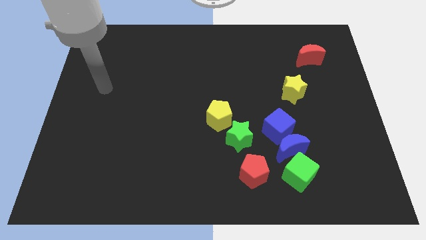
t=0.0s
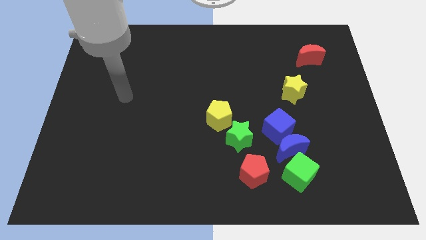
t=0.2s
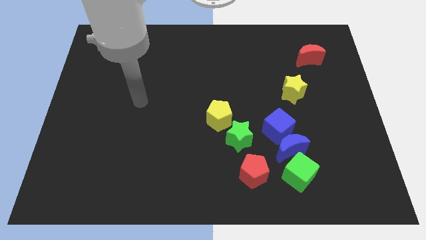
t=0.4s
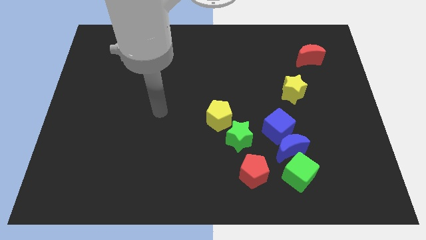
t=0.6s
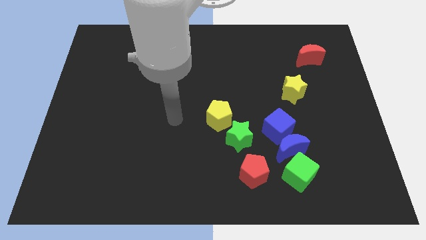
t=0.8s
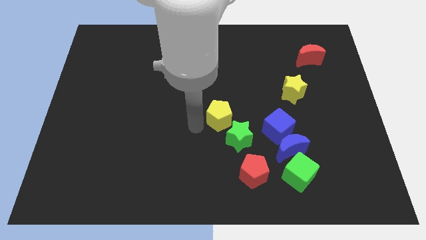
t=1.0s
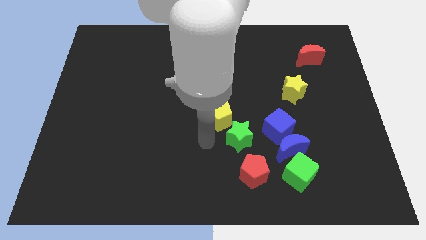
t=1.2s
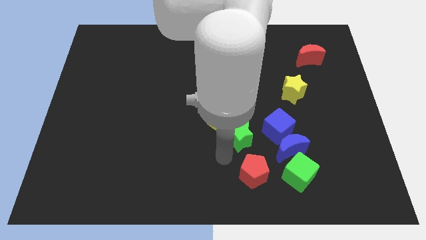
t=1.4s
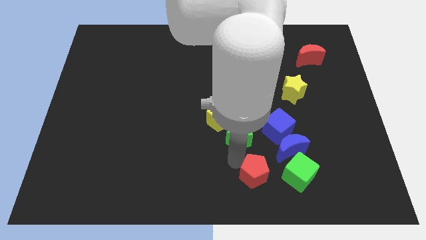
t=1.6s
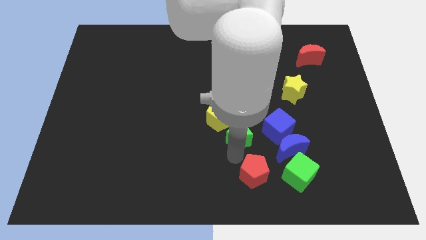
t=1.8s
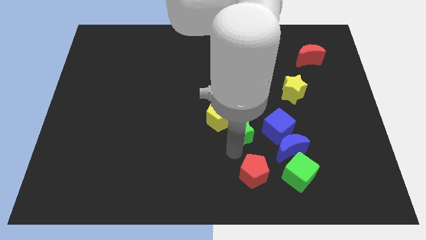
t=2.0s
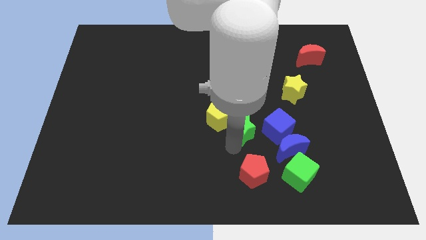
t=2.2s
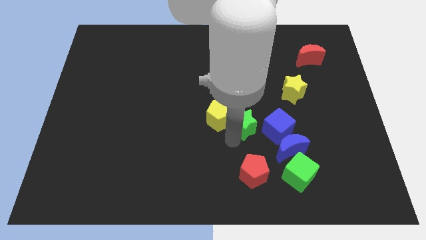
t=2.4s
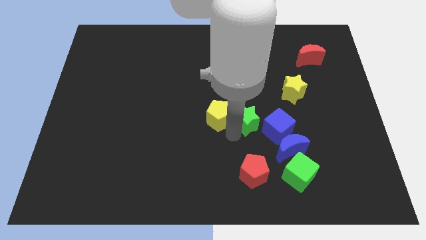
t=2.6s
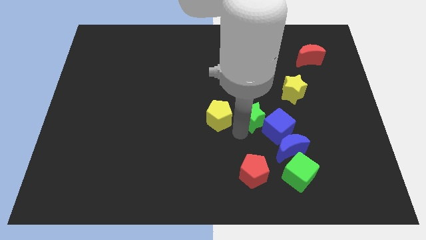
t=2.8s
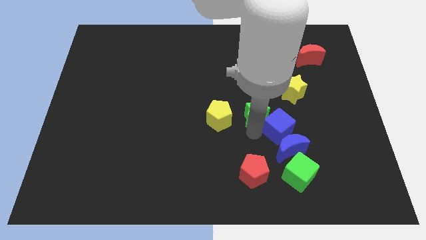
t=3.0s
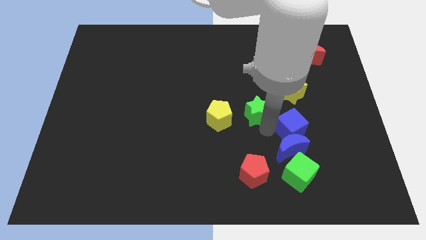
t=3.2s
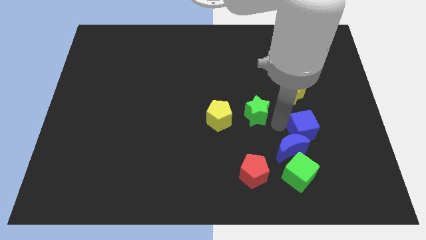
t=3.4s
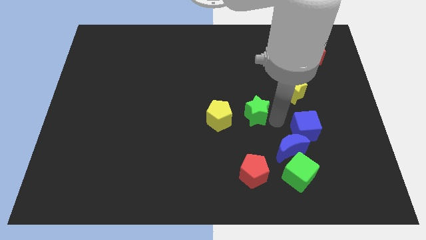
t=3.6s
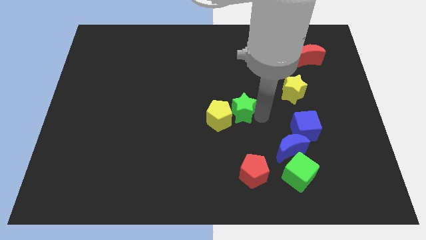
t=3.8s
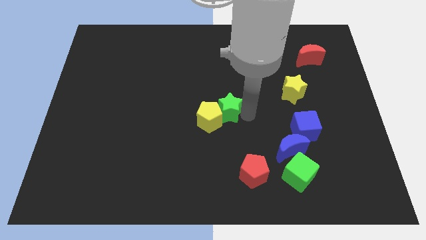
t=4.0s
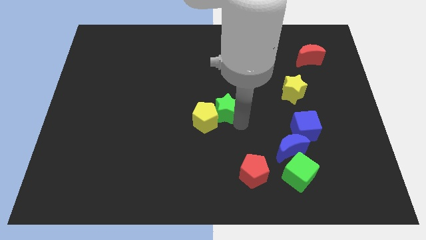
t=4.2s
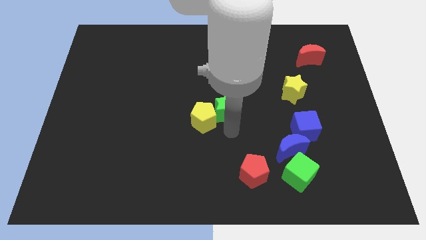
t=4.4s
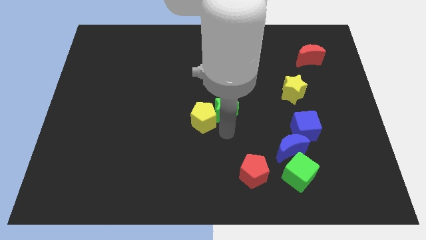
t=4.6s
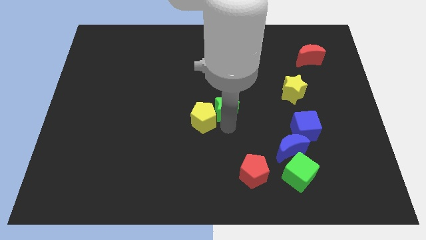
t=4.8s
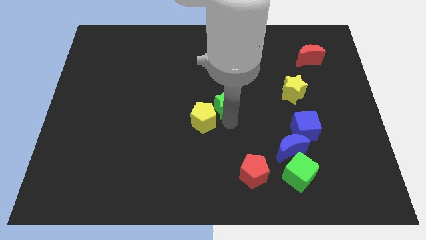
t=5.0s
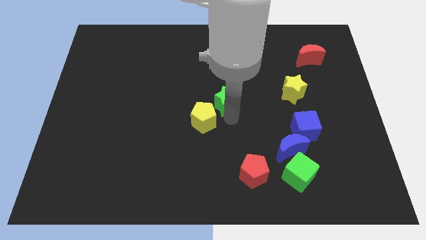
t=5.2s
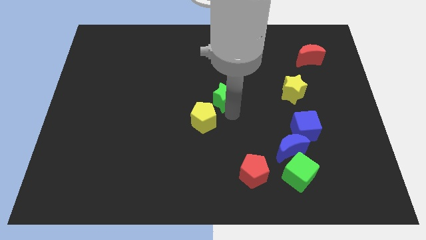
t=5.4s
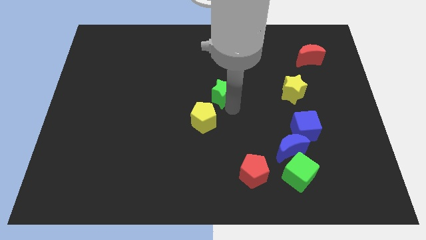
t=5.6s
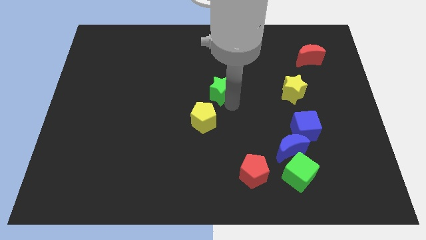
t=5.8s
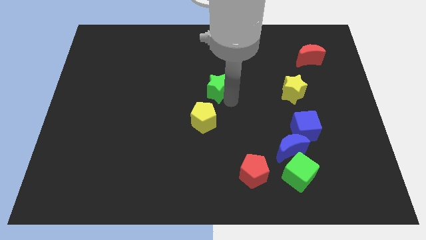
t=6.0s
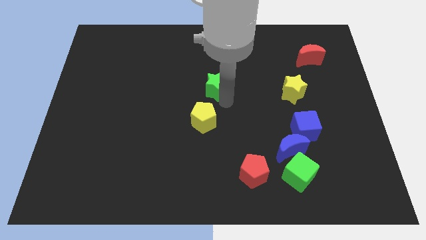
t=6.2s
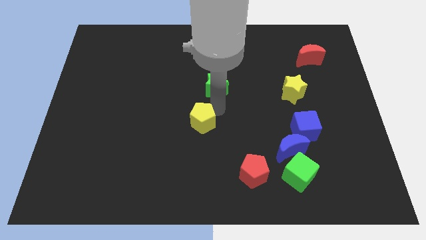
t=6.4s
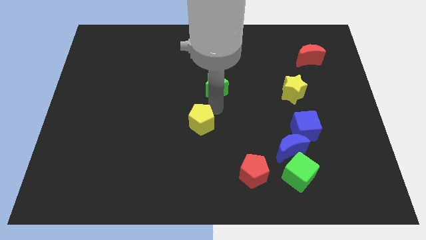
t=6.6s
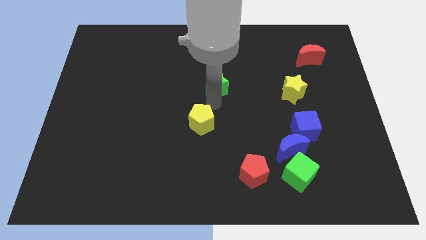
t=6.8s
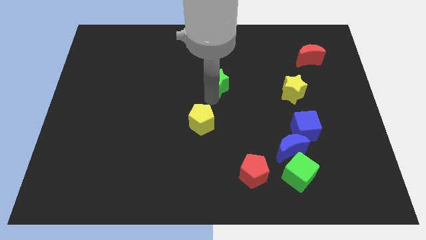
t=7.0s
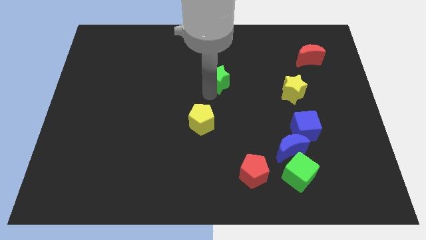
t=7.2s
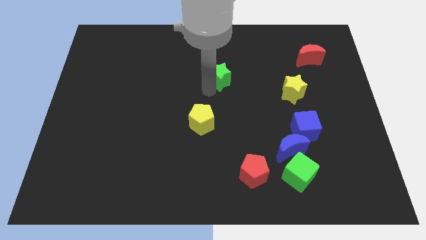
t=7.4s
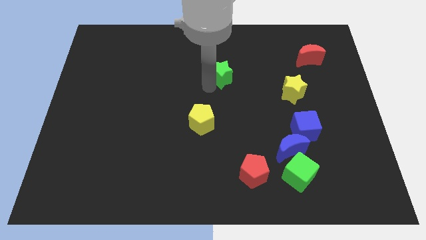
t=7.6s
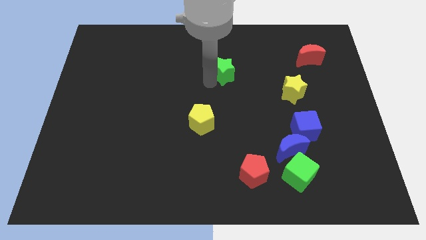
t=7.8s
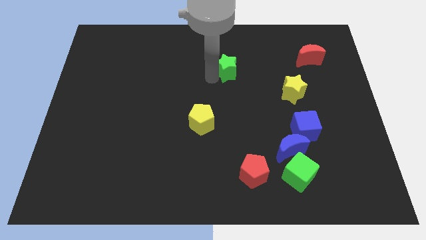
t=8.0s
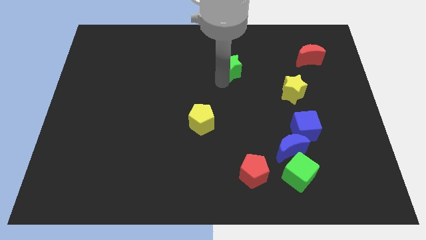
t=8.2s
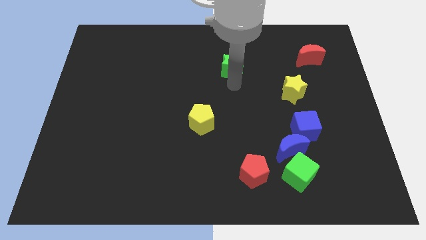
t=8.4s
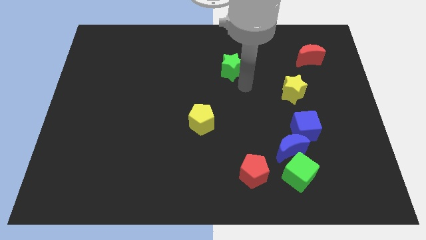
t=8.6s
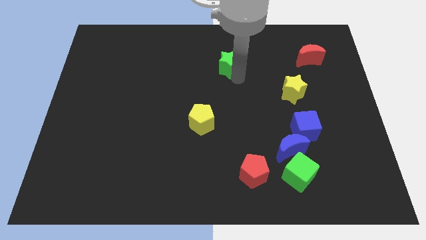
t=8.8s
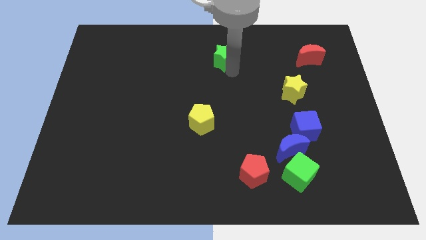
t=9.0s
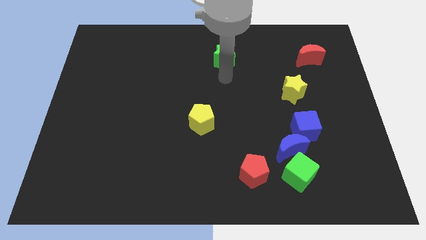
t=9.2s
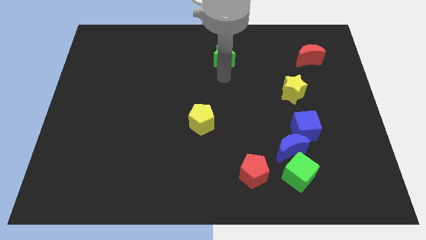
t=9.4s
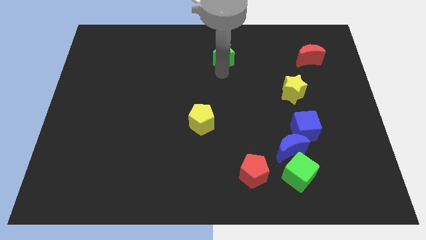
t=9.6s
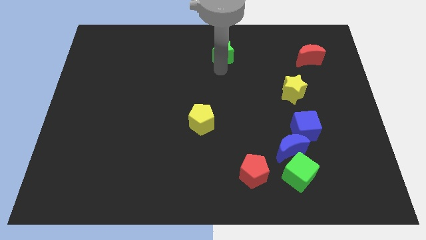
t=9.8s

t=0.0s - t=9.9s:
push the green star to the top

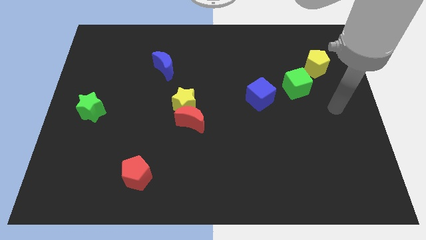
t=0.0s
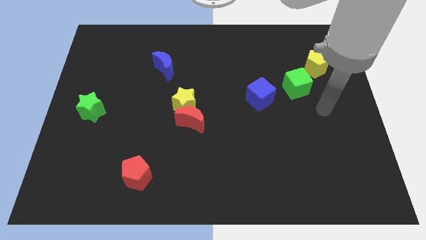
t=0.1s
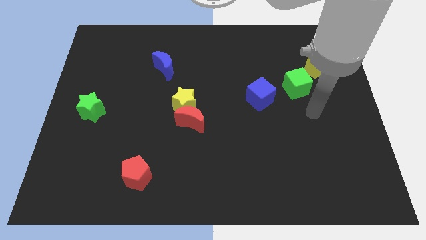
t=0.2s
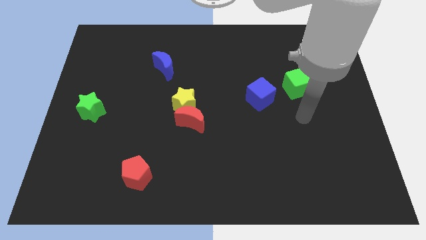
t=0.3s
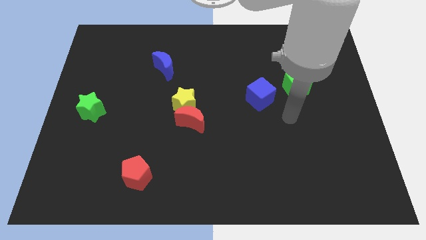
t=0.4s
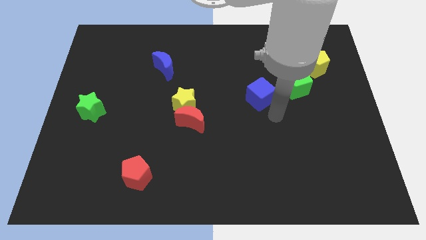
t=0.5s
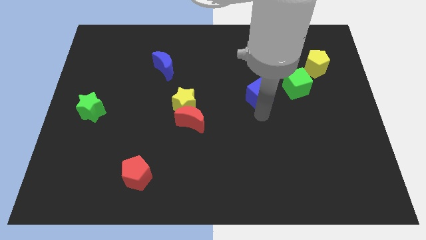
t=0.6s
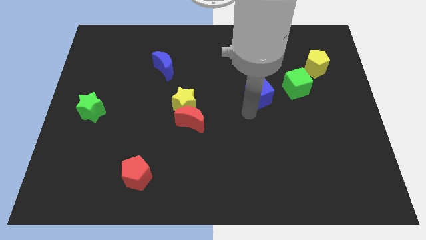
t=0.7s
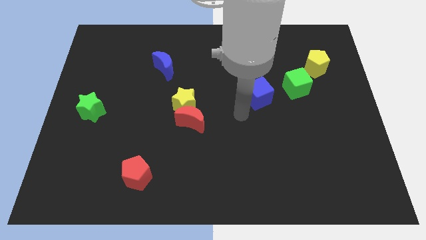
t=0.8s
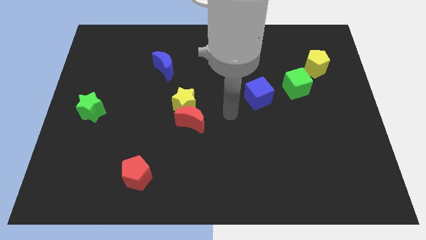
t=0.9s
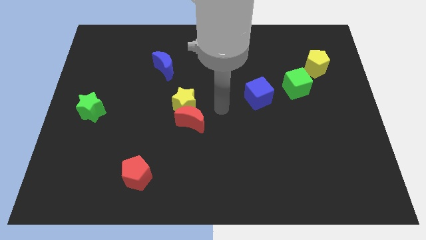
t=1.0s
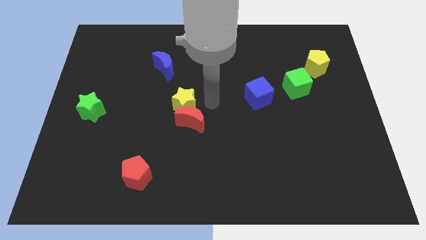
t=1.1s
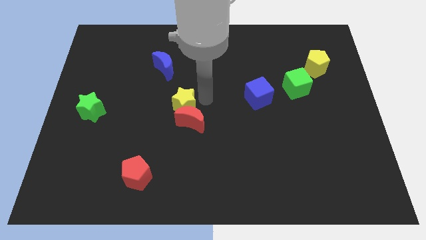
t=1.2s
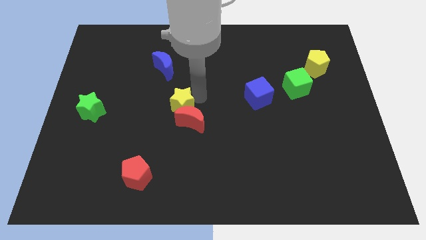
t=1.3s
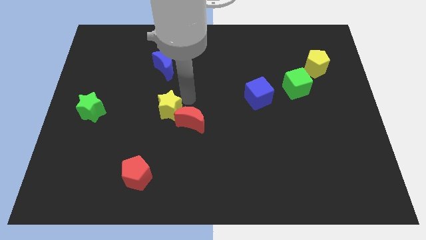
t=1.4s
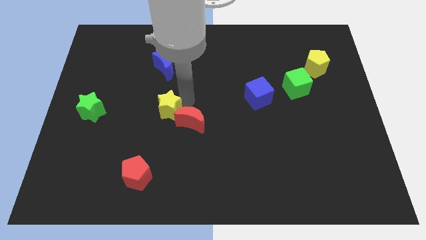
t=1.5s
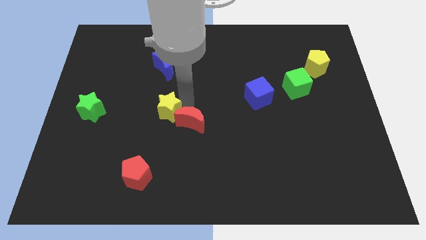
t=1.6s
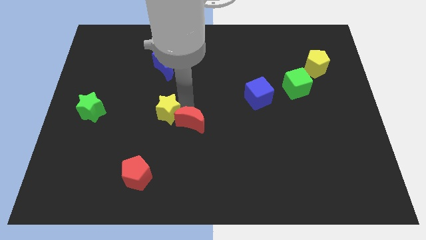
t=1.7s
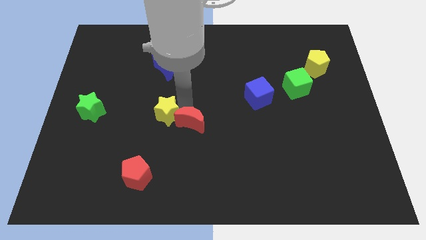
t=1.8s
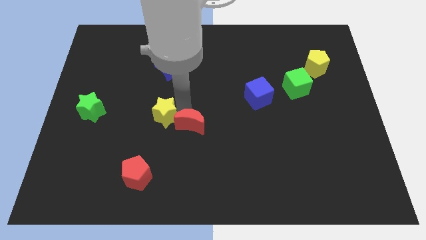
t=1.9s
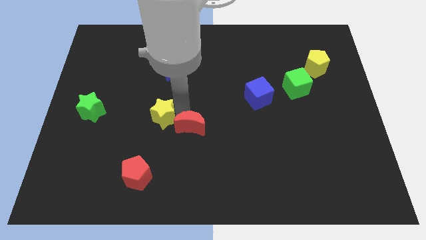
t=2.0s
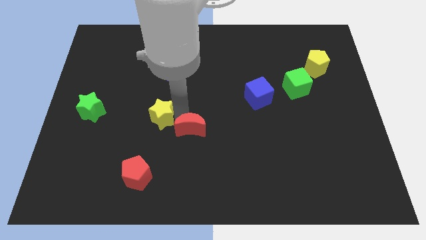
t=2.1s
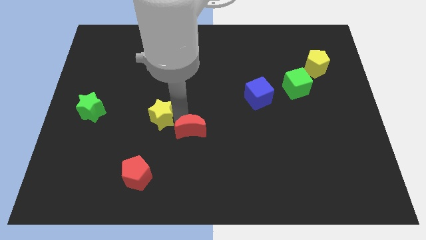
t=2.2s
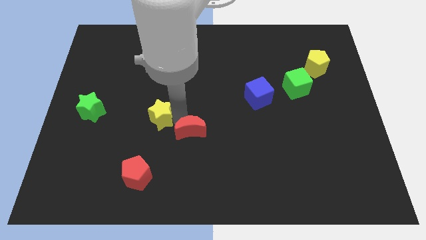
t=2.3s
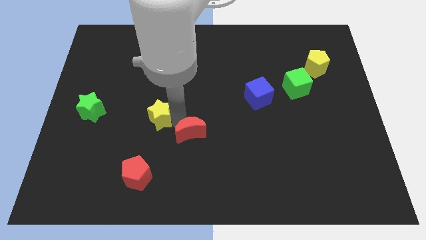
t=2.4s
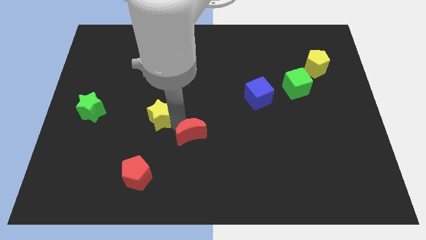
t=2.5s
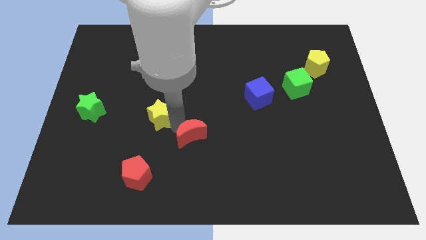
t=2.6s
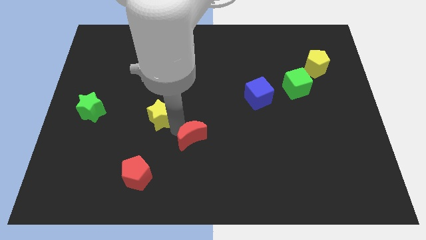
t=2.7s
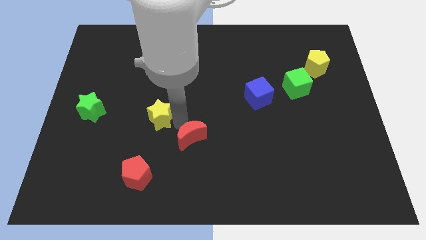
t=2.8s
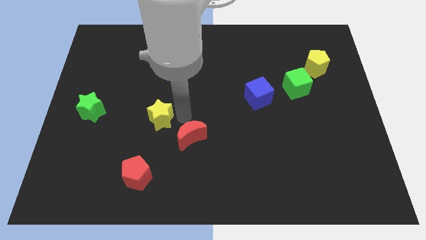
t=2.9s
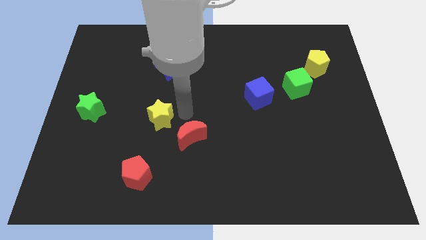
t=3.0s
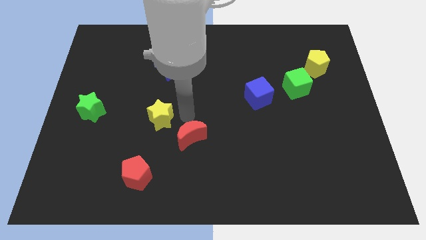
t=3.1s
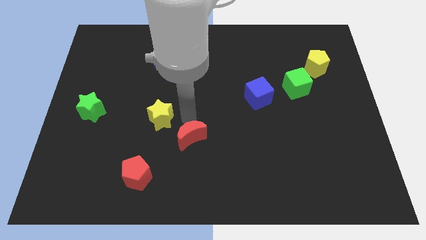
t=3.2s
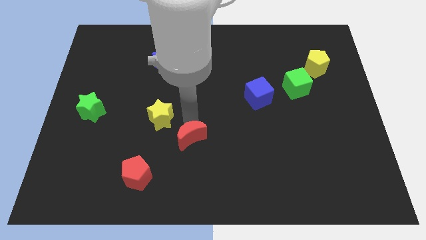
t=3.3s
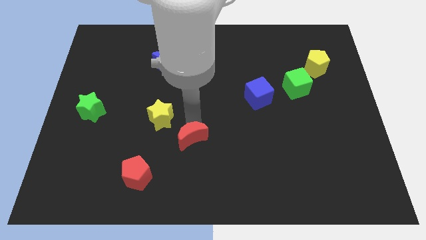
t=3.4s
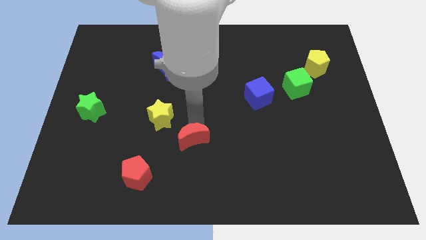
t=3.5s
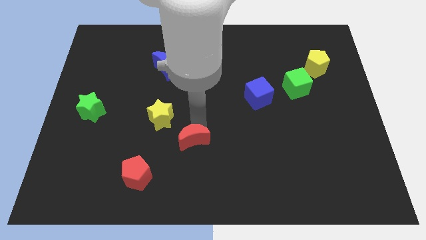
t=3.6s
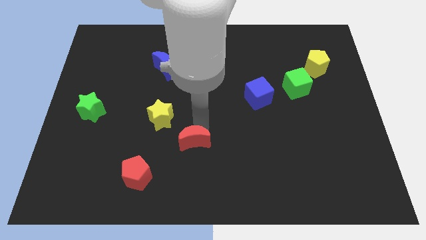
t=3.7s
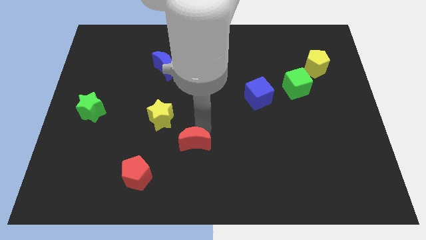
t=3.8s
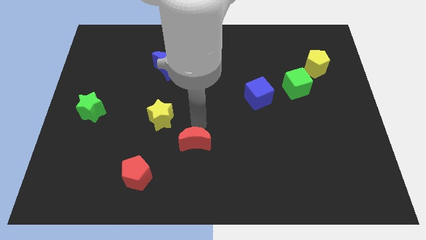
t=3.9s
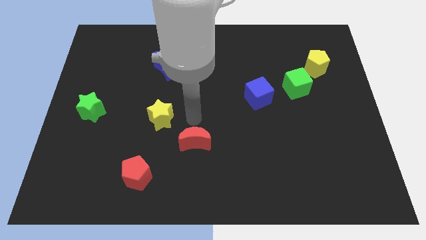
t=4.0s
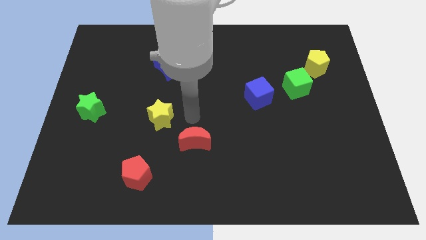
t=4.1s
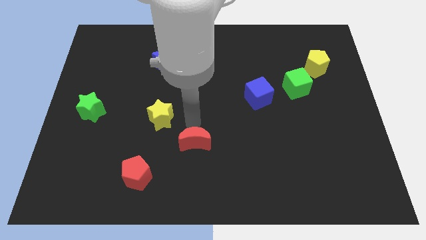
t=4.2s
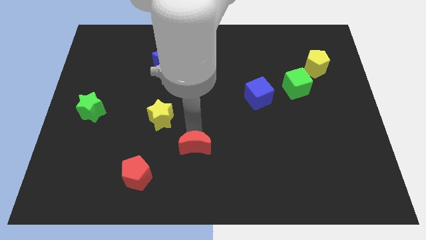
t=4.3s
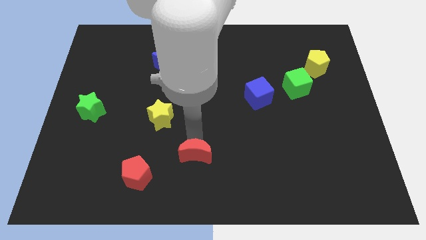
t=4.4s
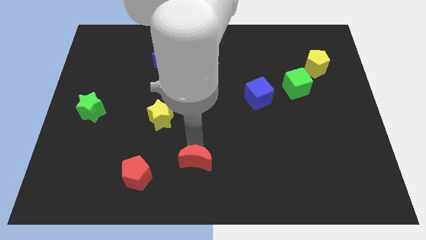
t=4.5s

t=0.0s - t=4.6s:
move the red moon to the bottom
